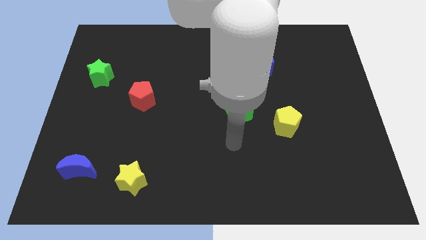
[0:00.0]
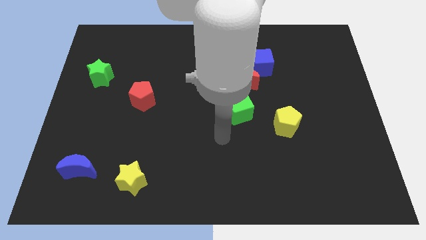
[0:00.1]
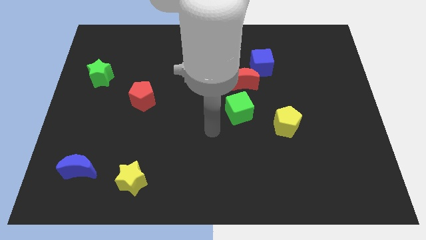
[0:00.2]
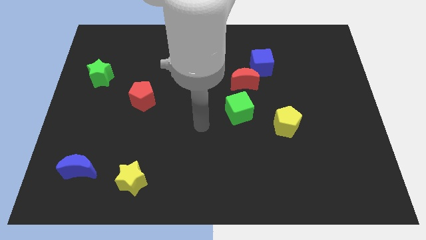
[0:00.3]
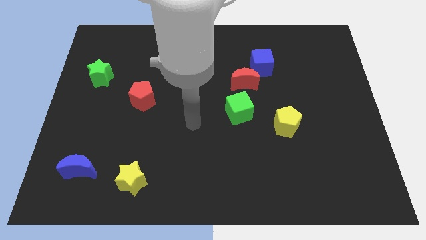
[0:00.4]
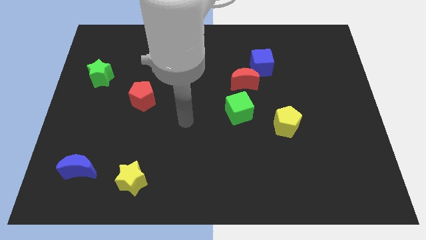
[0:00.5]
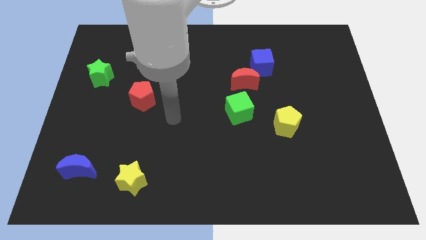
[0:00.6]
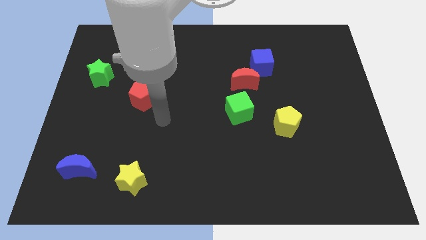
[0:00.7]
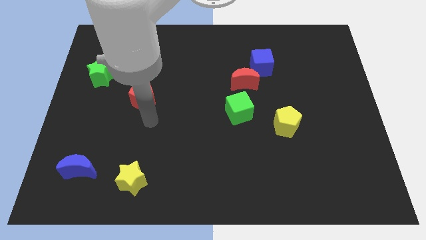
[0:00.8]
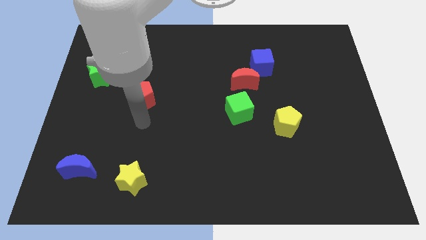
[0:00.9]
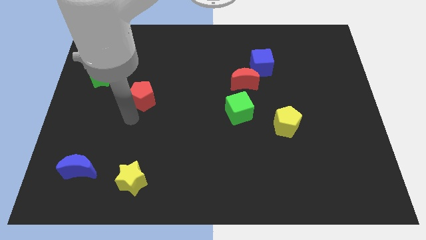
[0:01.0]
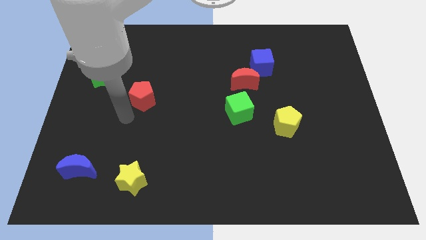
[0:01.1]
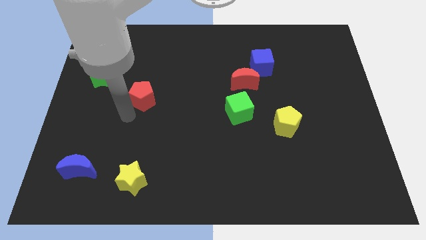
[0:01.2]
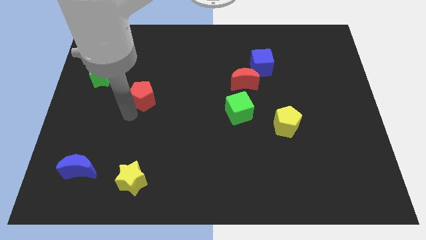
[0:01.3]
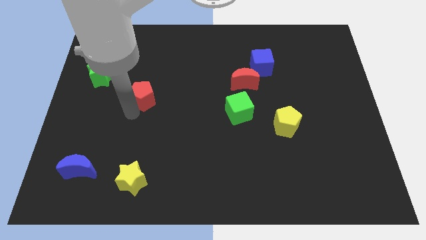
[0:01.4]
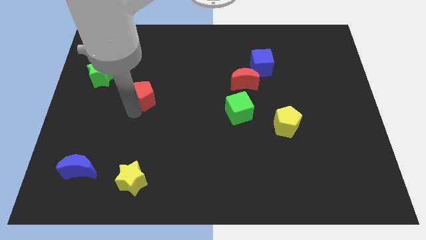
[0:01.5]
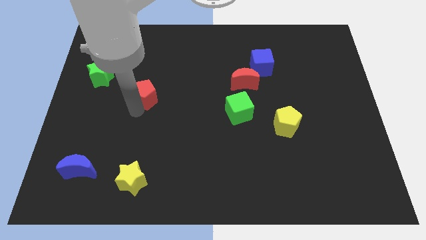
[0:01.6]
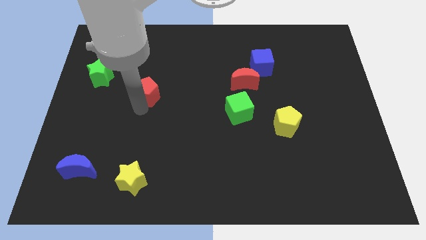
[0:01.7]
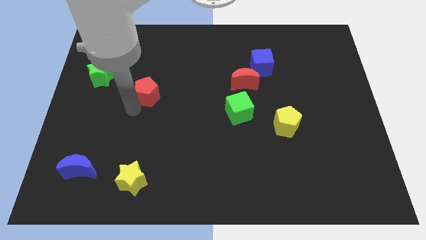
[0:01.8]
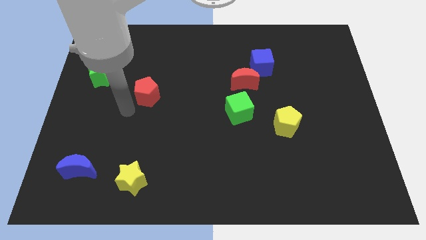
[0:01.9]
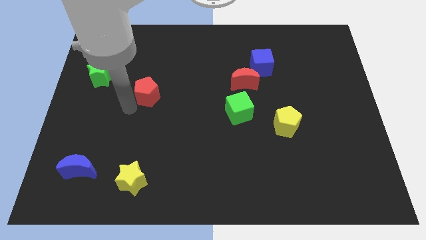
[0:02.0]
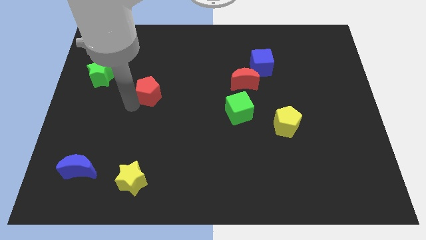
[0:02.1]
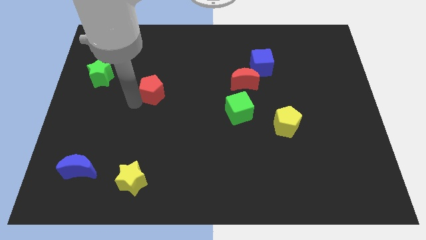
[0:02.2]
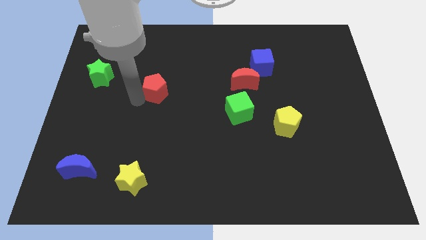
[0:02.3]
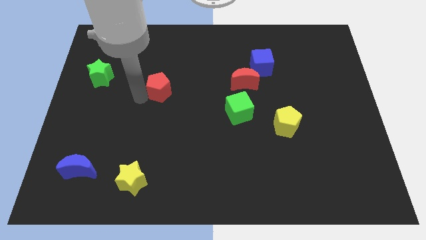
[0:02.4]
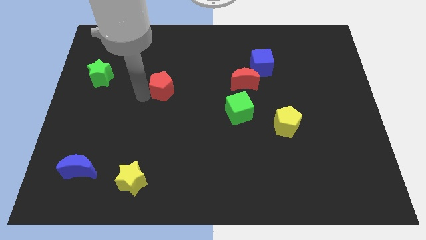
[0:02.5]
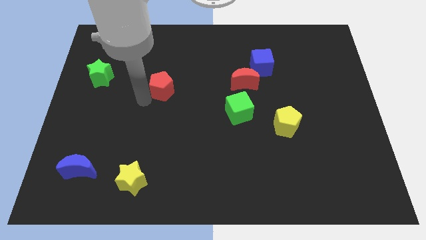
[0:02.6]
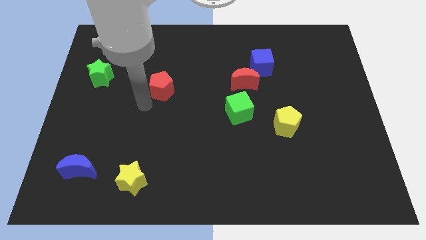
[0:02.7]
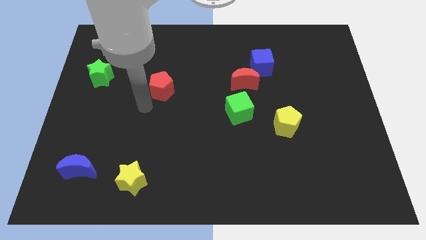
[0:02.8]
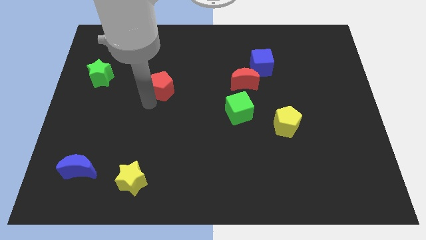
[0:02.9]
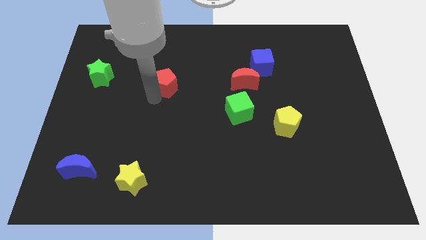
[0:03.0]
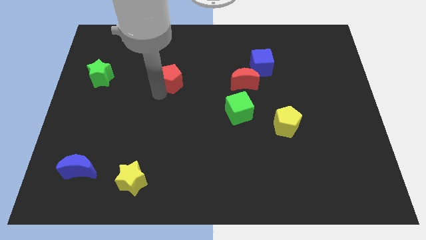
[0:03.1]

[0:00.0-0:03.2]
slide the red pentagon a bit up and then to the right

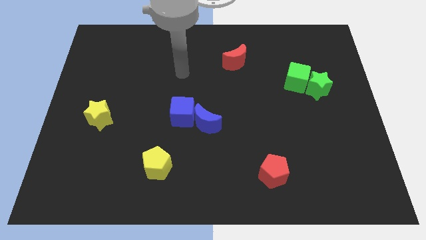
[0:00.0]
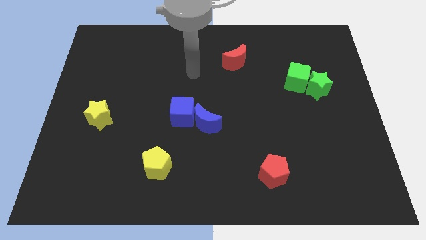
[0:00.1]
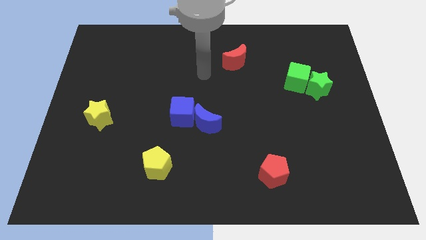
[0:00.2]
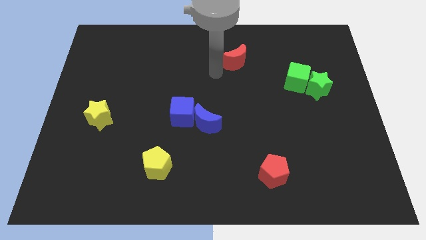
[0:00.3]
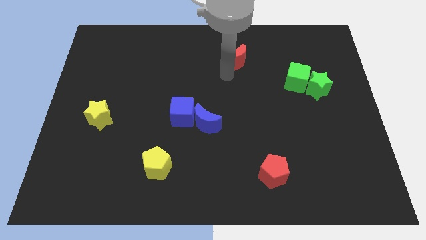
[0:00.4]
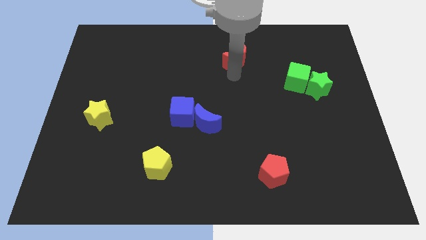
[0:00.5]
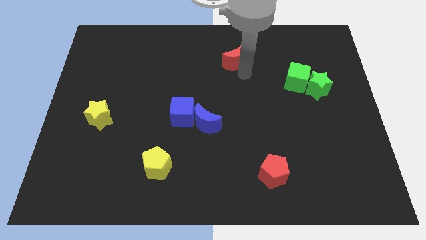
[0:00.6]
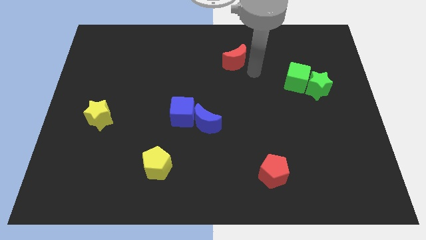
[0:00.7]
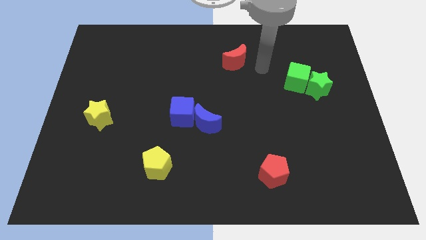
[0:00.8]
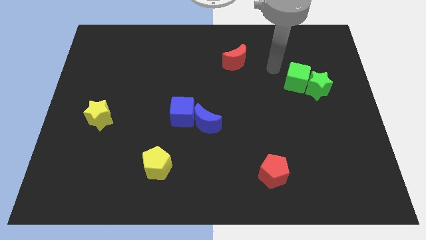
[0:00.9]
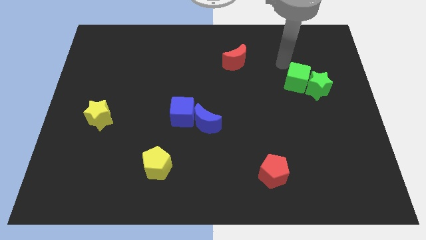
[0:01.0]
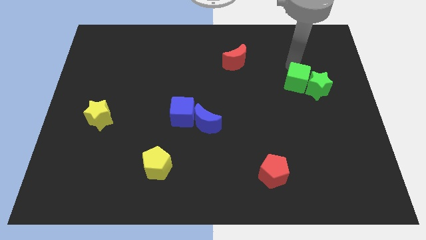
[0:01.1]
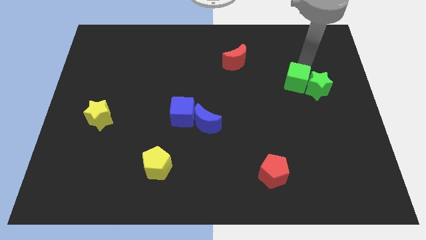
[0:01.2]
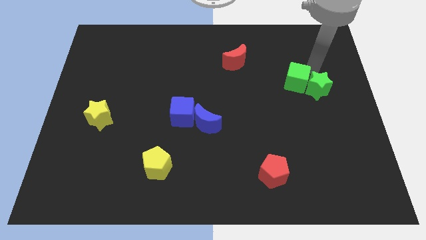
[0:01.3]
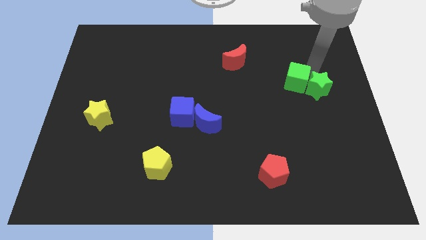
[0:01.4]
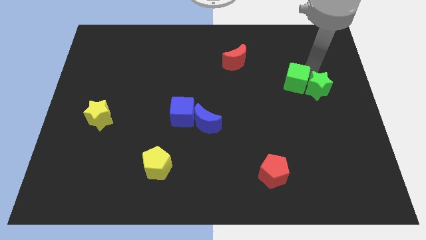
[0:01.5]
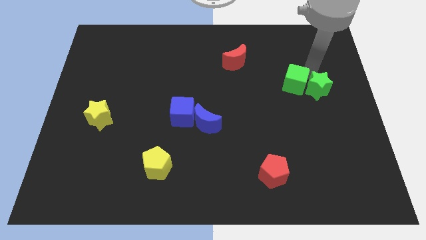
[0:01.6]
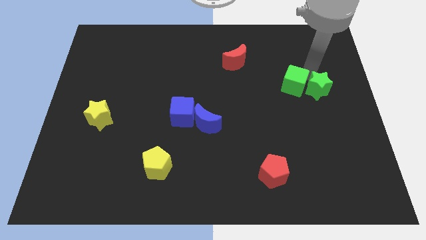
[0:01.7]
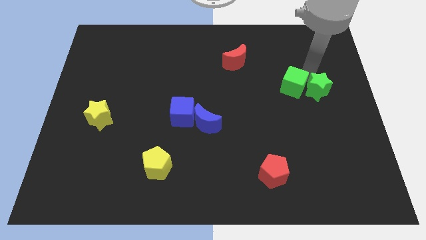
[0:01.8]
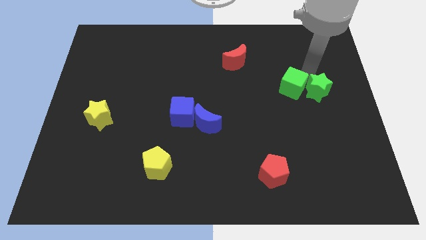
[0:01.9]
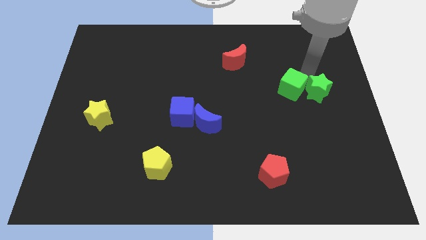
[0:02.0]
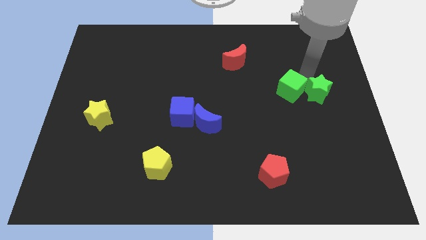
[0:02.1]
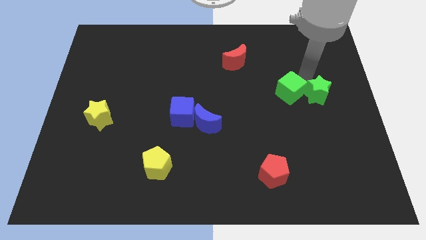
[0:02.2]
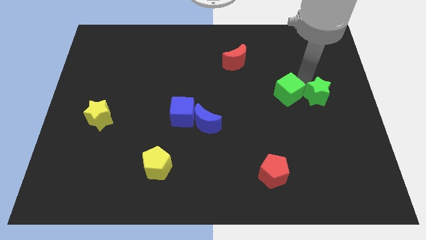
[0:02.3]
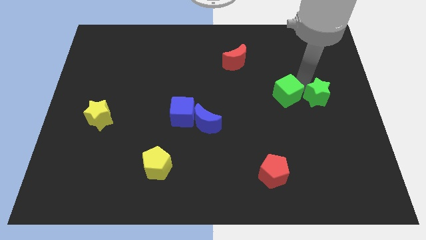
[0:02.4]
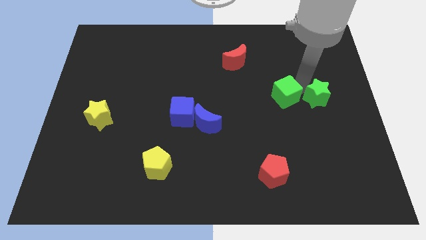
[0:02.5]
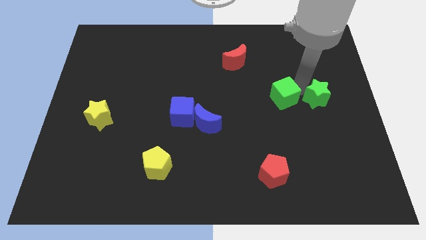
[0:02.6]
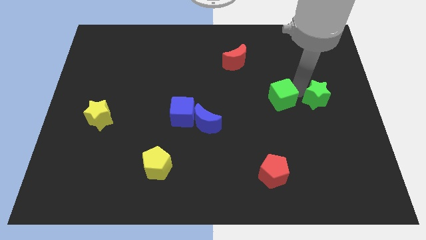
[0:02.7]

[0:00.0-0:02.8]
move the green cube a little bit diagonally down and left

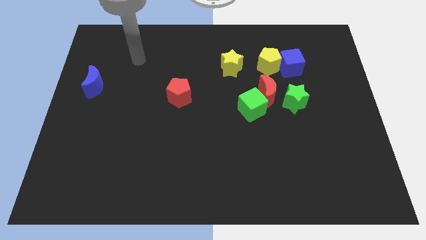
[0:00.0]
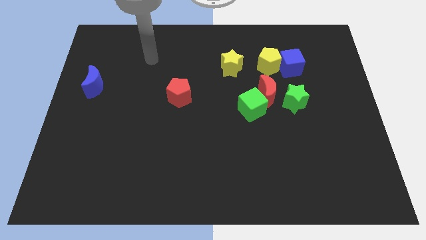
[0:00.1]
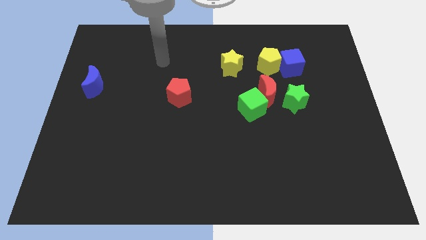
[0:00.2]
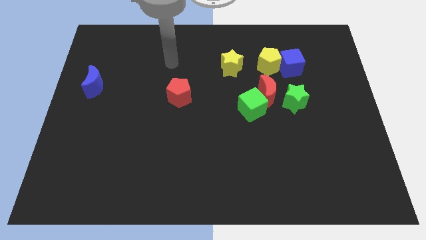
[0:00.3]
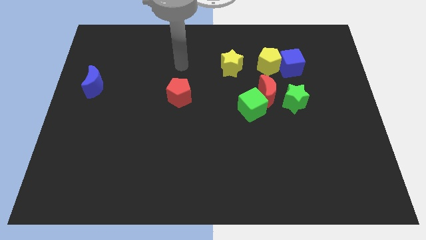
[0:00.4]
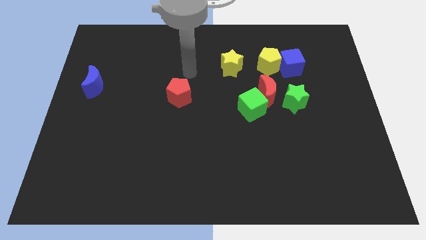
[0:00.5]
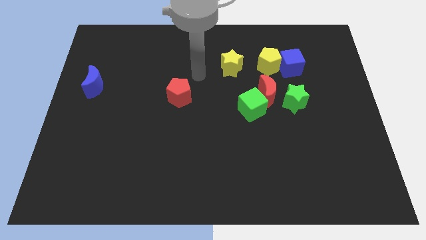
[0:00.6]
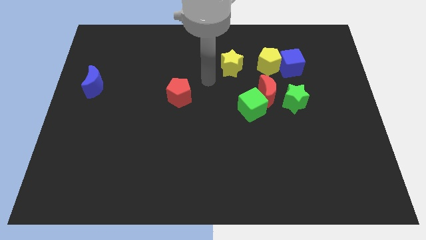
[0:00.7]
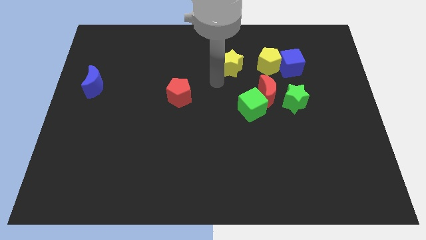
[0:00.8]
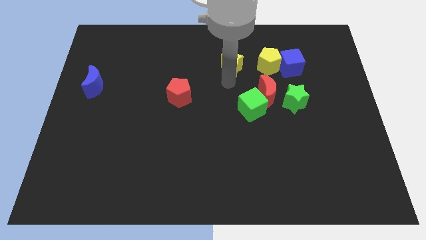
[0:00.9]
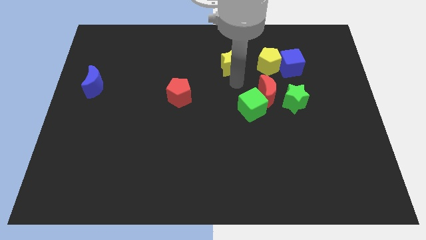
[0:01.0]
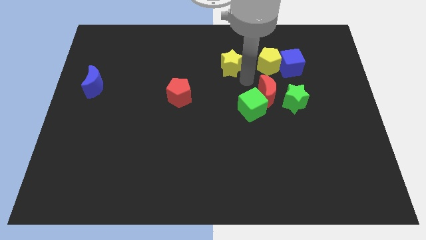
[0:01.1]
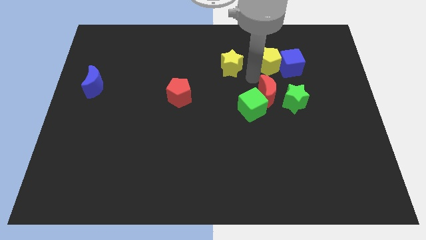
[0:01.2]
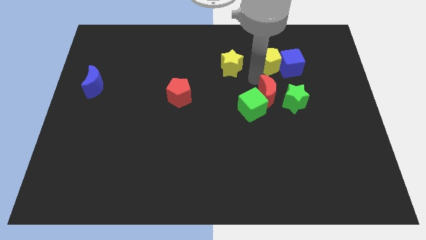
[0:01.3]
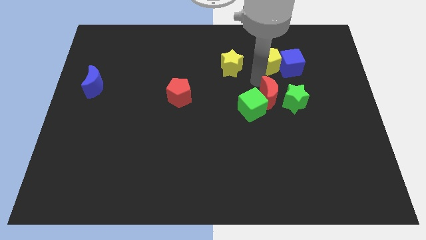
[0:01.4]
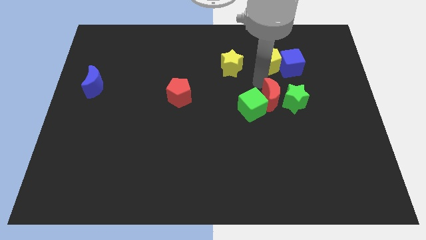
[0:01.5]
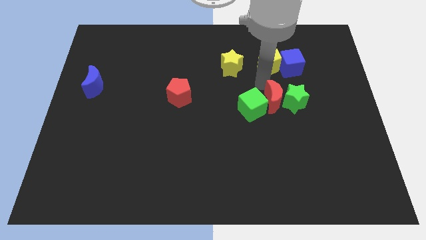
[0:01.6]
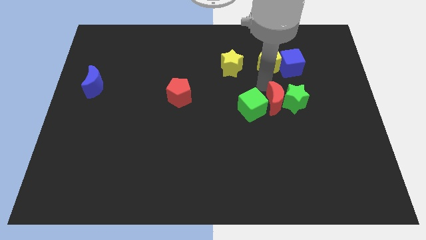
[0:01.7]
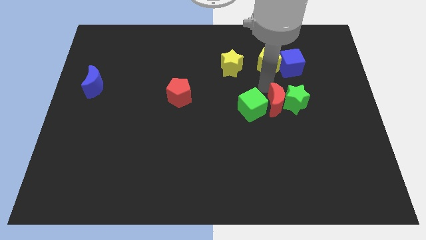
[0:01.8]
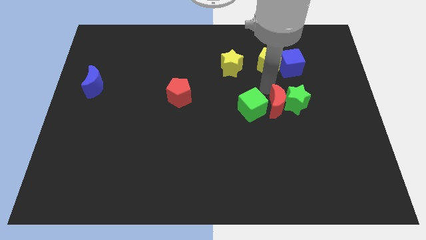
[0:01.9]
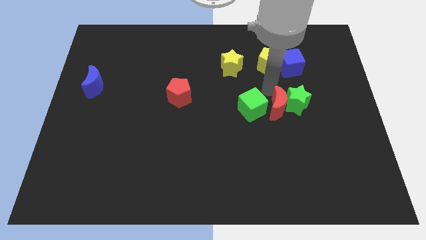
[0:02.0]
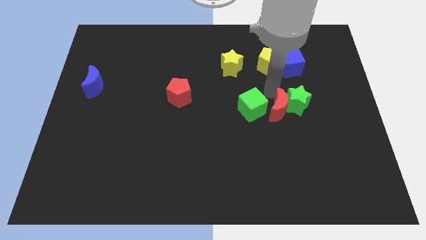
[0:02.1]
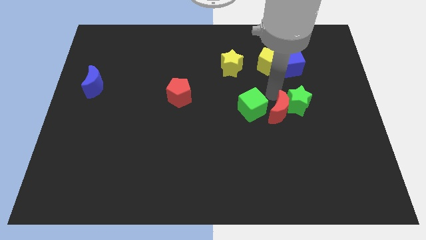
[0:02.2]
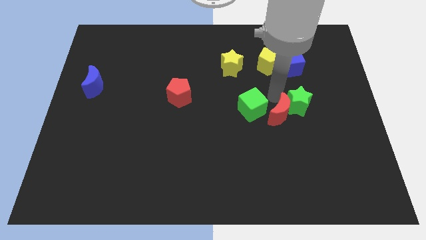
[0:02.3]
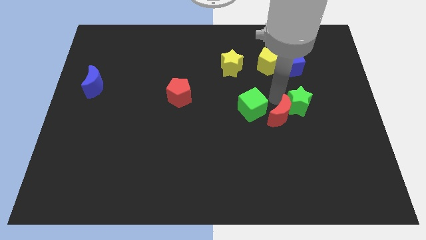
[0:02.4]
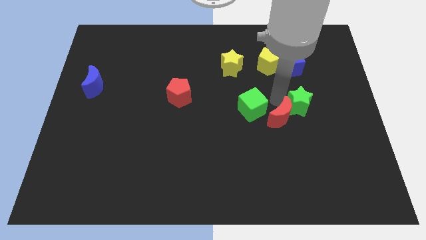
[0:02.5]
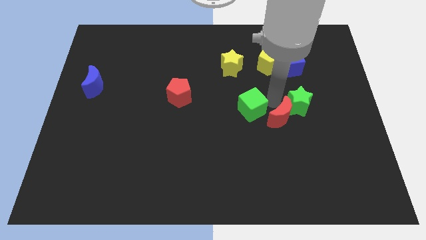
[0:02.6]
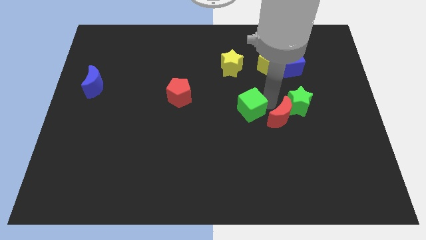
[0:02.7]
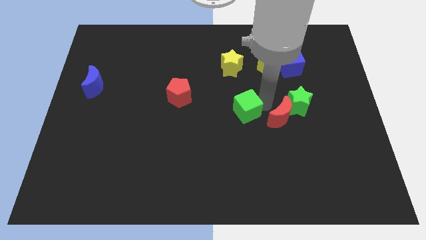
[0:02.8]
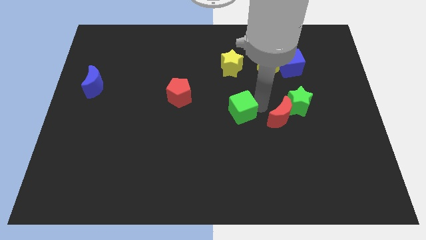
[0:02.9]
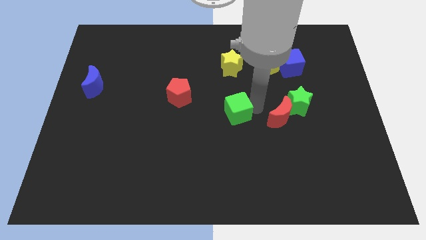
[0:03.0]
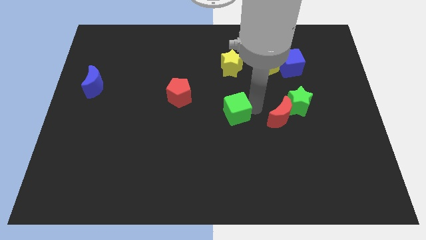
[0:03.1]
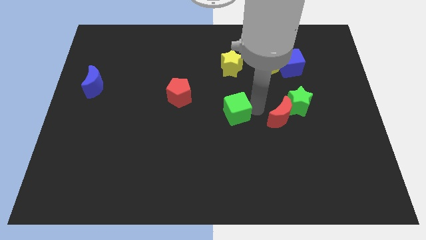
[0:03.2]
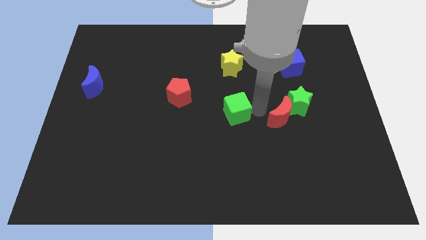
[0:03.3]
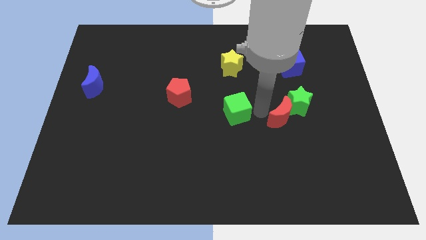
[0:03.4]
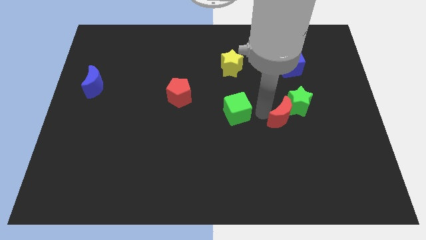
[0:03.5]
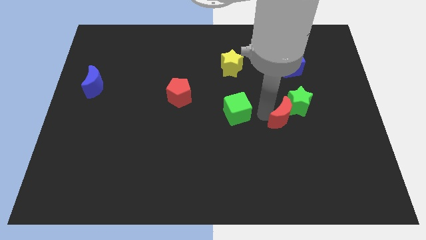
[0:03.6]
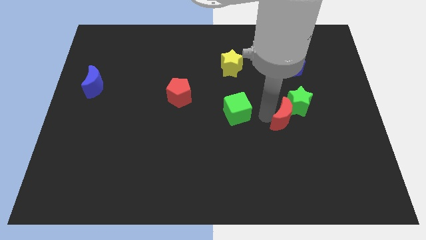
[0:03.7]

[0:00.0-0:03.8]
slightly move the red moon downwards and to the right diagonally
